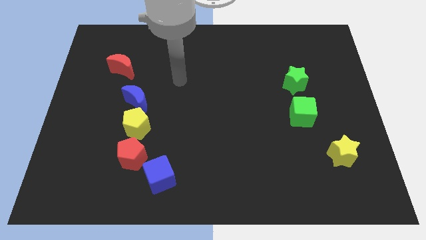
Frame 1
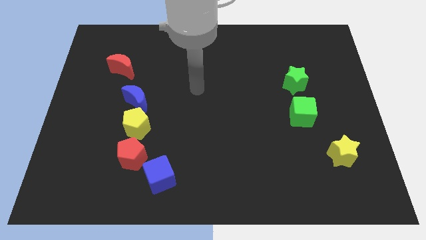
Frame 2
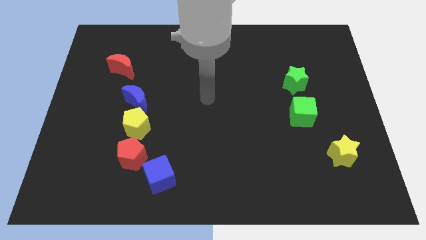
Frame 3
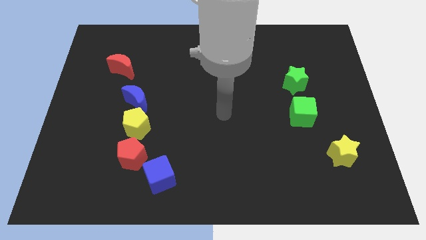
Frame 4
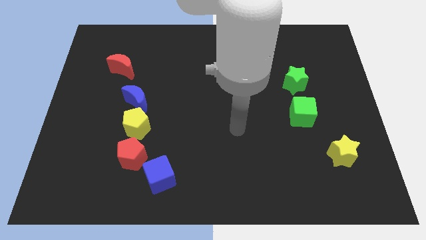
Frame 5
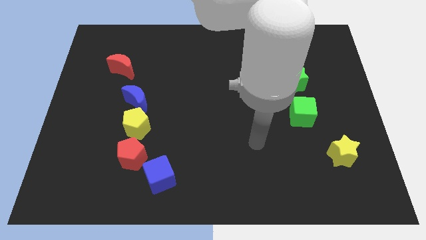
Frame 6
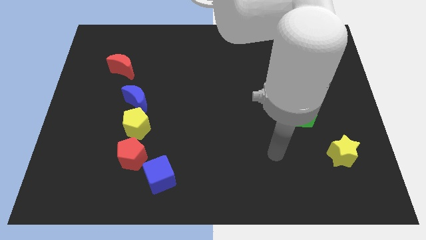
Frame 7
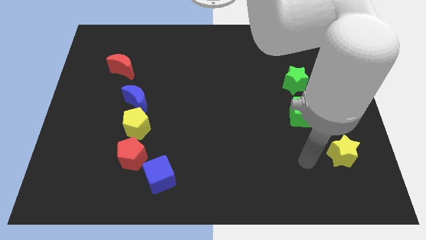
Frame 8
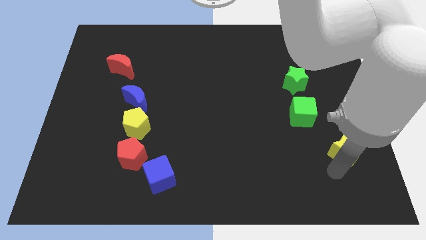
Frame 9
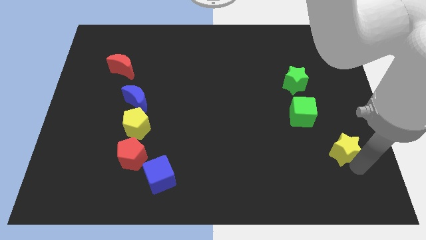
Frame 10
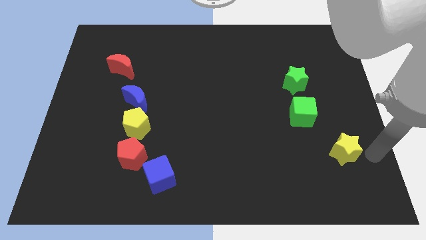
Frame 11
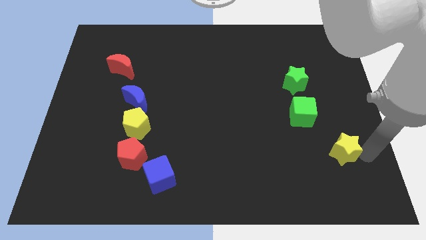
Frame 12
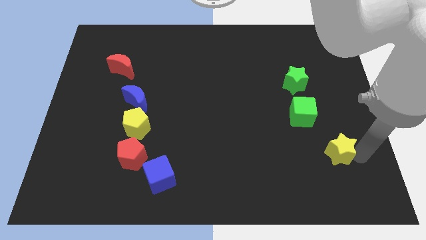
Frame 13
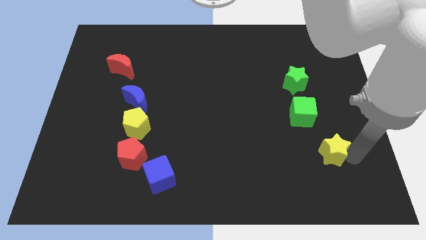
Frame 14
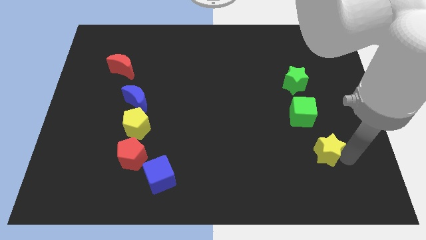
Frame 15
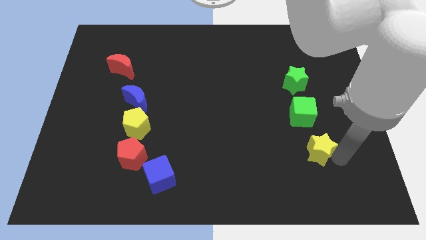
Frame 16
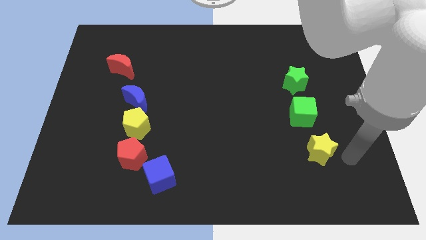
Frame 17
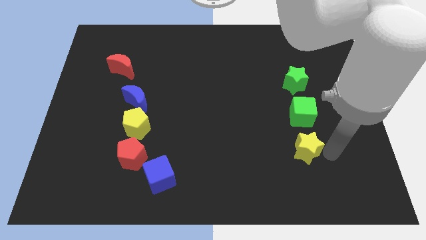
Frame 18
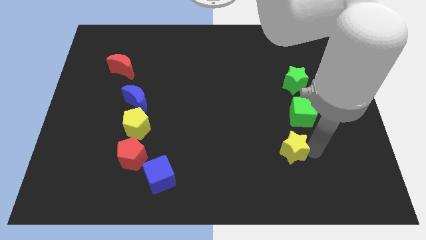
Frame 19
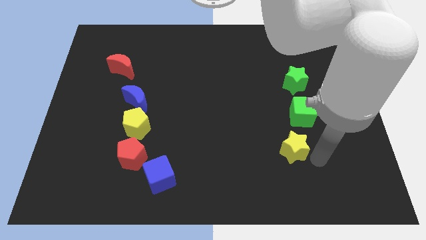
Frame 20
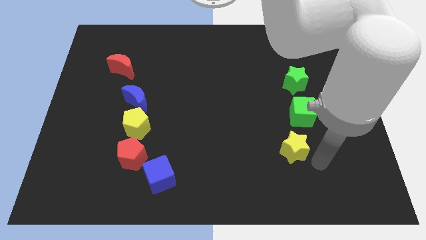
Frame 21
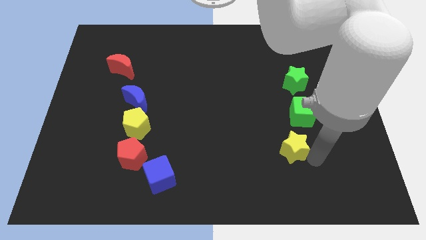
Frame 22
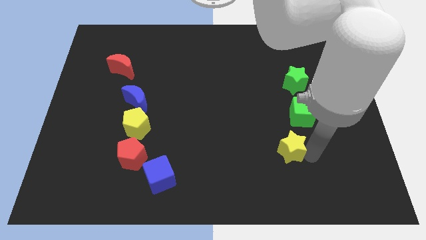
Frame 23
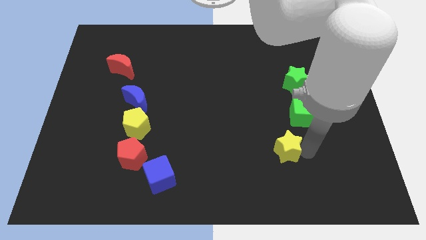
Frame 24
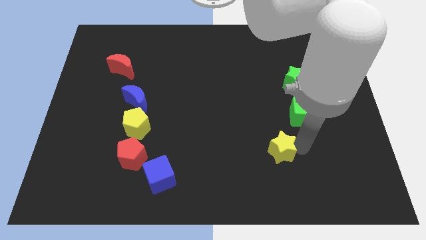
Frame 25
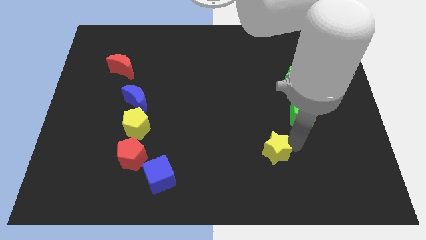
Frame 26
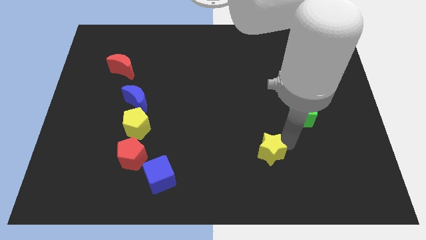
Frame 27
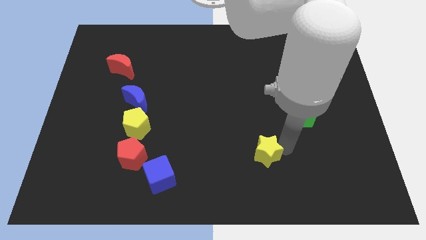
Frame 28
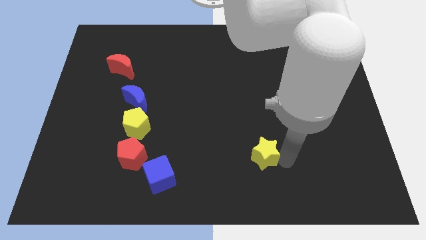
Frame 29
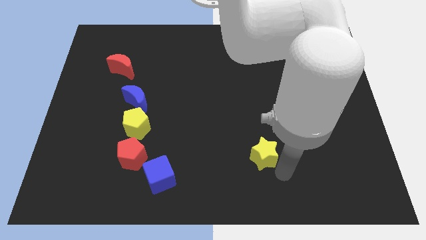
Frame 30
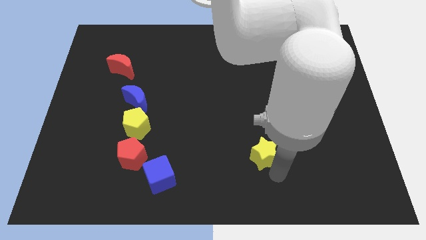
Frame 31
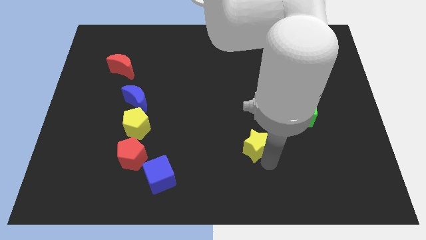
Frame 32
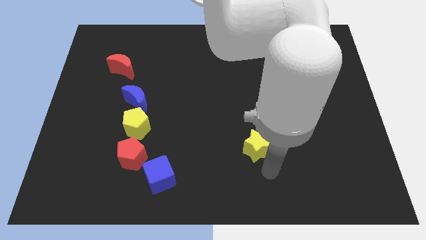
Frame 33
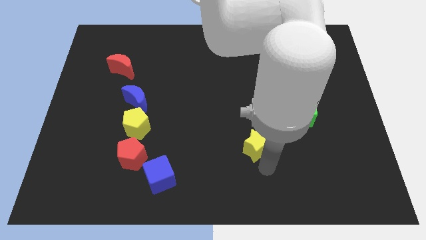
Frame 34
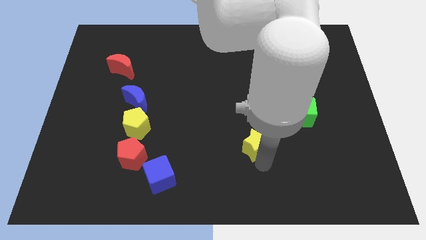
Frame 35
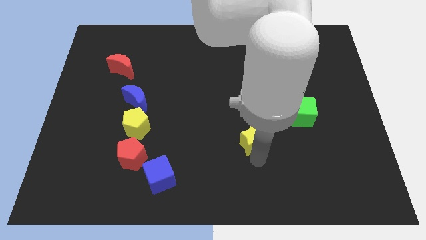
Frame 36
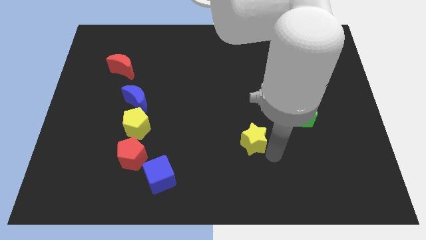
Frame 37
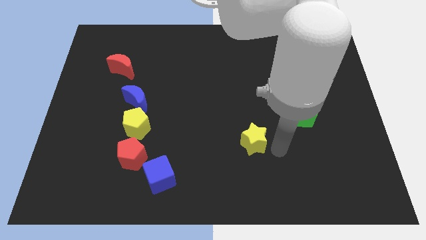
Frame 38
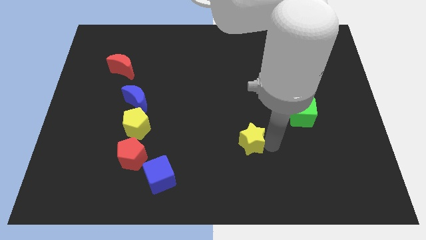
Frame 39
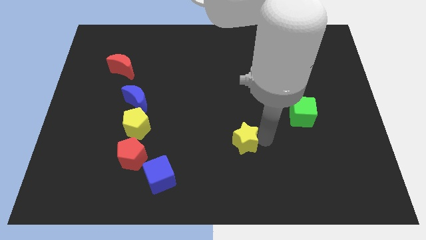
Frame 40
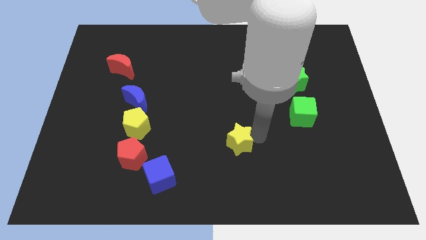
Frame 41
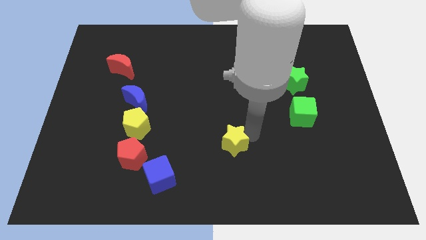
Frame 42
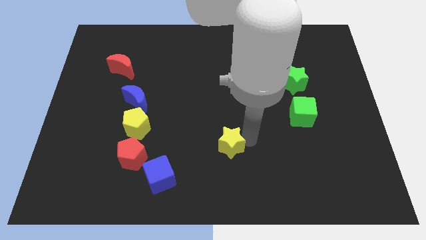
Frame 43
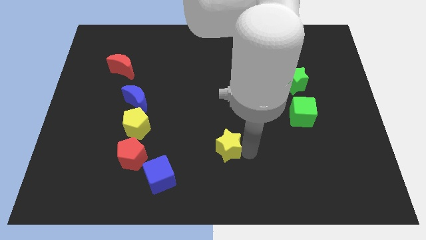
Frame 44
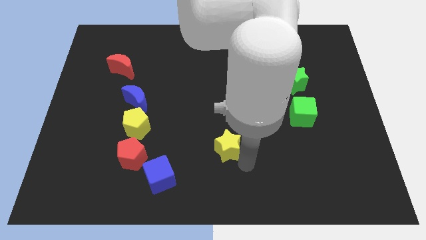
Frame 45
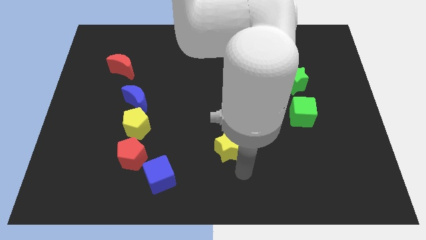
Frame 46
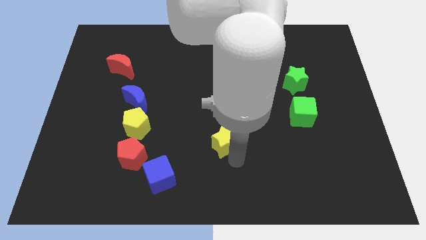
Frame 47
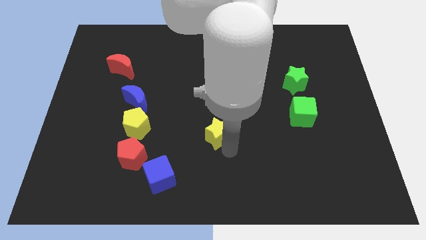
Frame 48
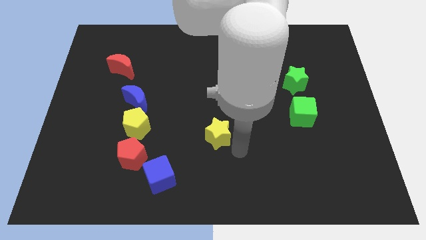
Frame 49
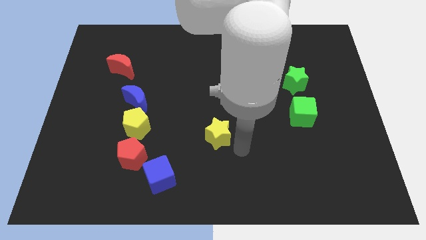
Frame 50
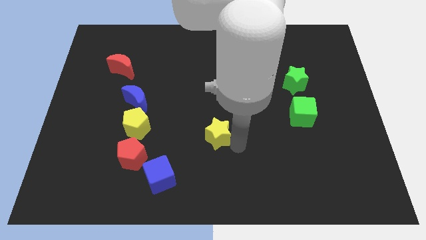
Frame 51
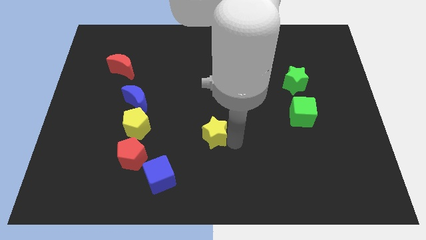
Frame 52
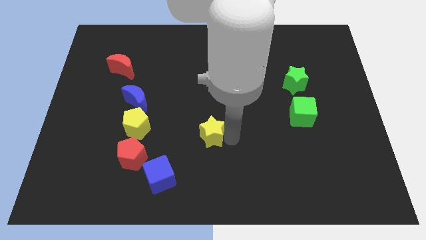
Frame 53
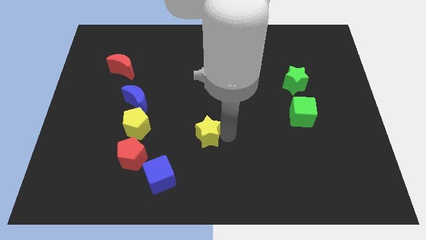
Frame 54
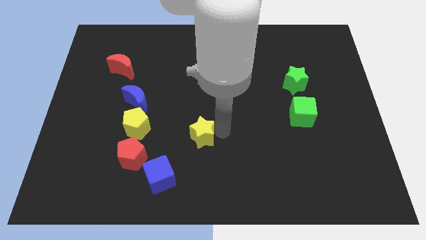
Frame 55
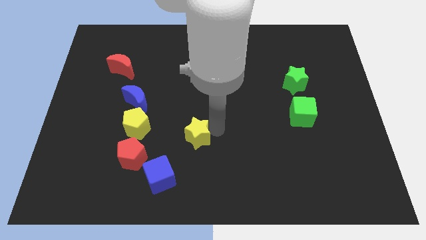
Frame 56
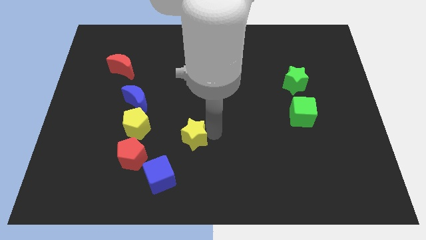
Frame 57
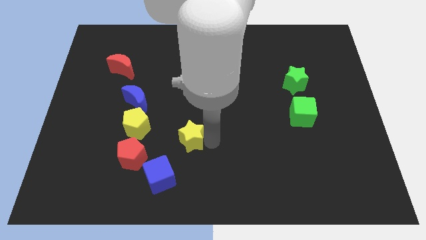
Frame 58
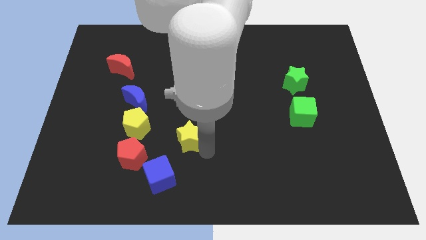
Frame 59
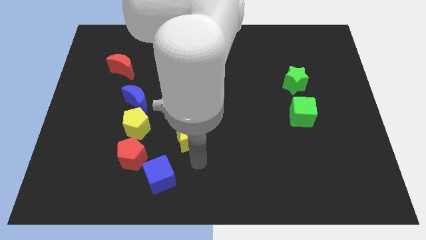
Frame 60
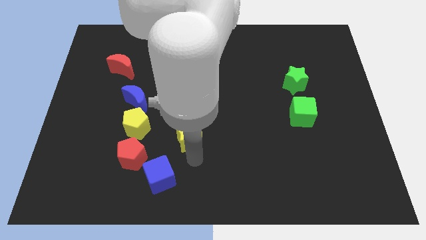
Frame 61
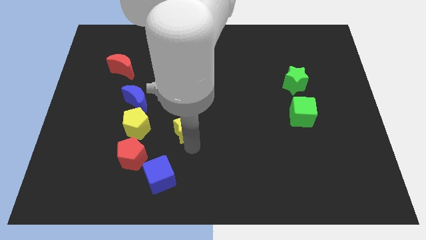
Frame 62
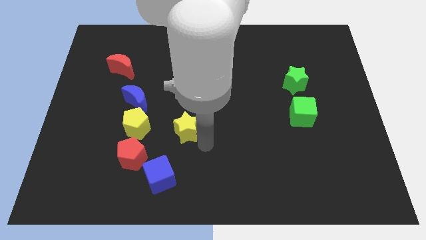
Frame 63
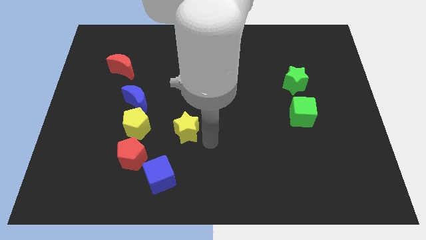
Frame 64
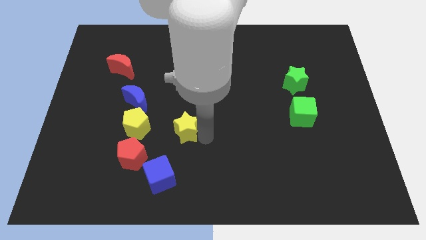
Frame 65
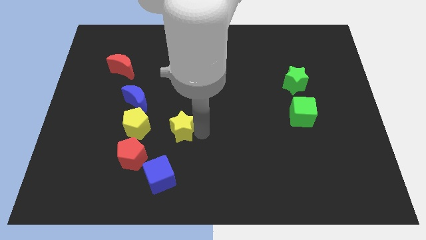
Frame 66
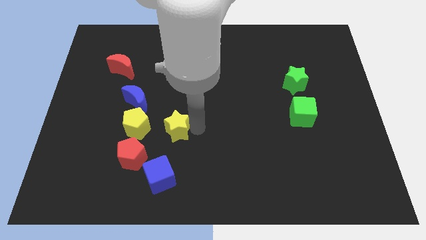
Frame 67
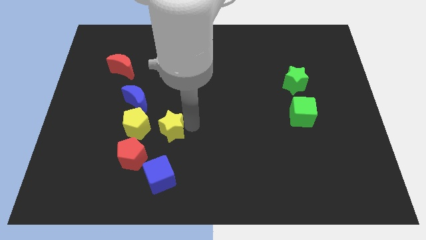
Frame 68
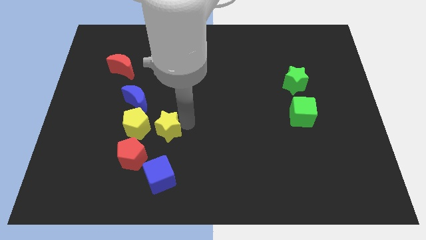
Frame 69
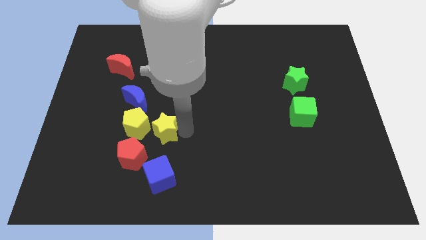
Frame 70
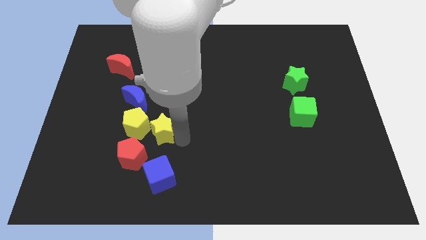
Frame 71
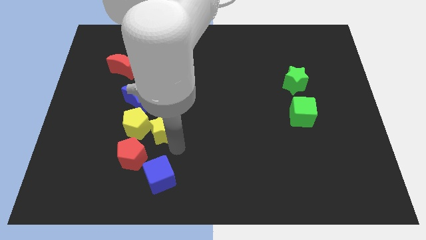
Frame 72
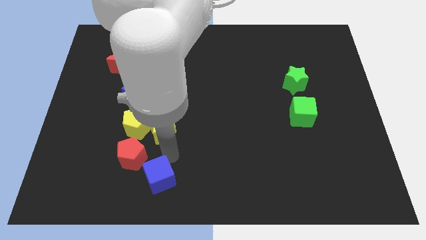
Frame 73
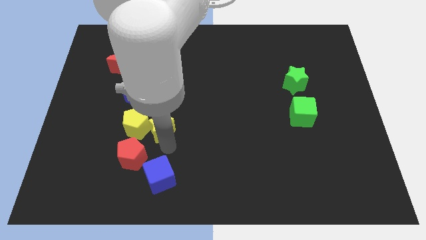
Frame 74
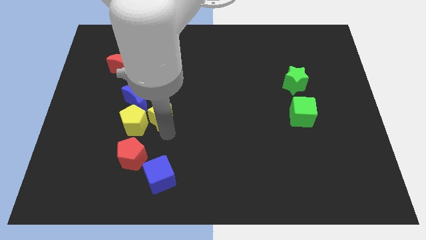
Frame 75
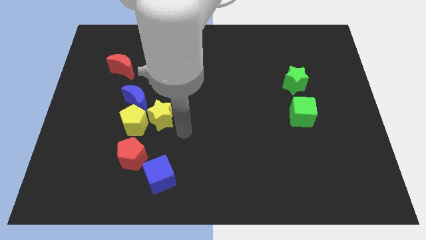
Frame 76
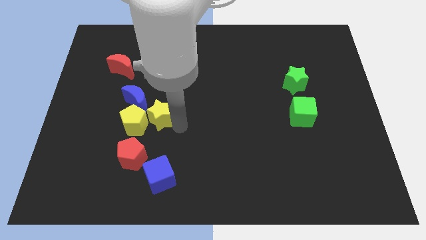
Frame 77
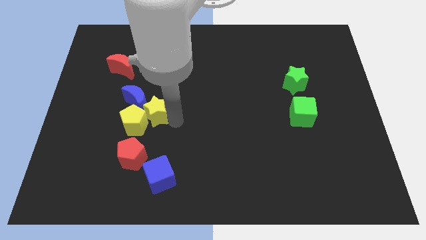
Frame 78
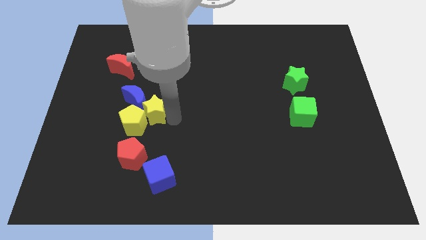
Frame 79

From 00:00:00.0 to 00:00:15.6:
slide the yellow star to the blue moon

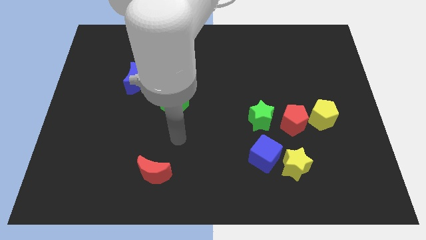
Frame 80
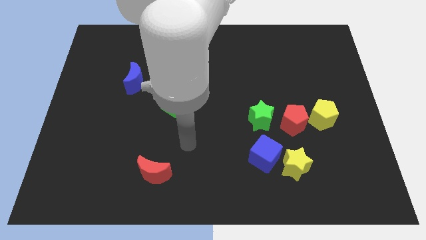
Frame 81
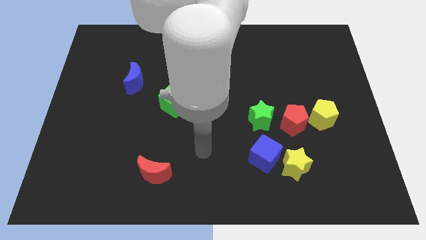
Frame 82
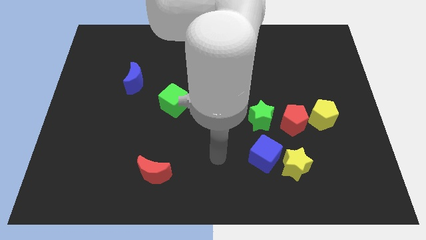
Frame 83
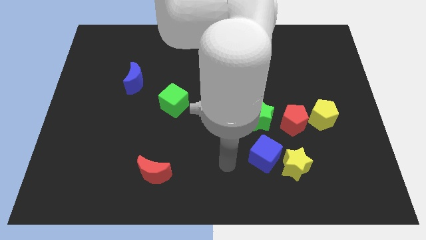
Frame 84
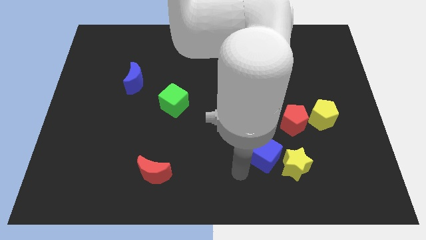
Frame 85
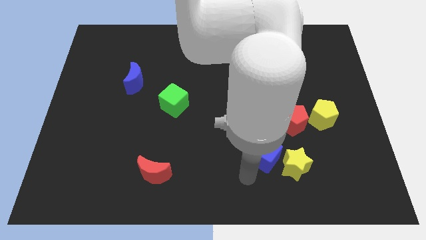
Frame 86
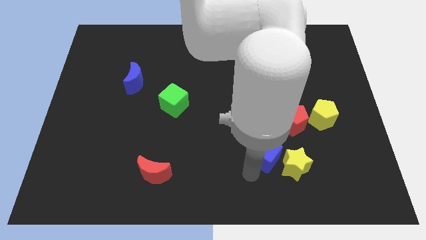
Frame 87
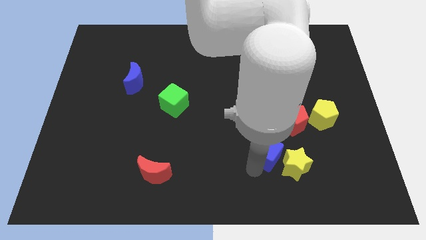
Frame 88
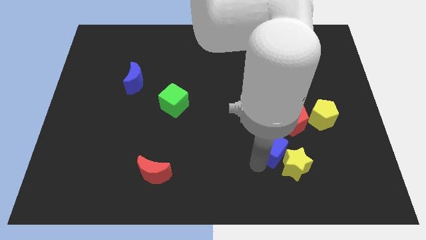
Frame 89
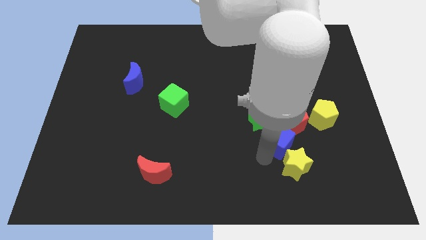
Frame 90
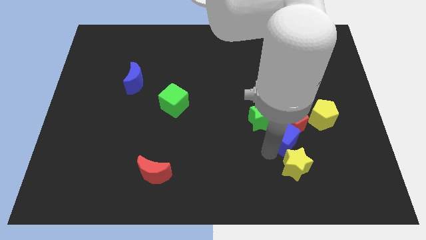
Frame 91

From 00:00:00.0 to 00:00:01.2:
put the blue cube towards the red pentagon
